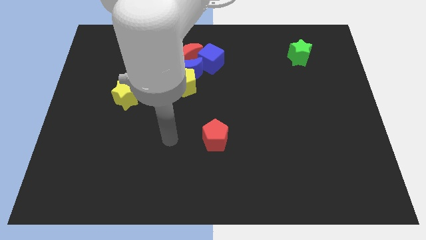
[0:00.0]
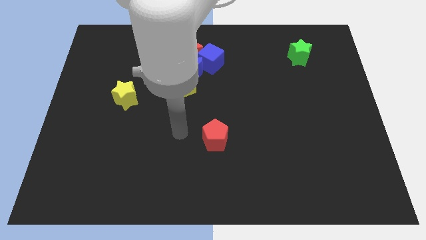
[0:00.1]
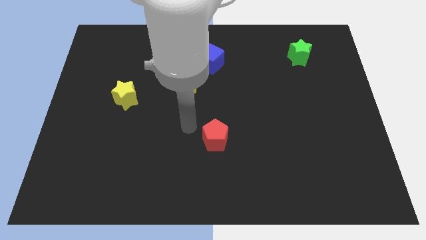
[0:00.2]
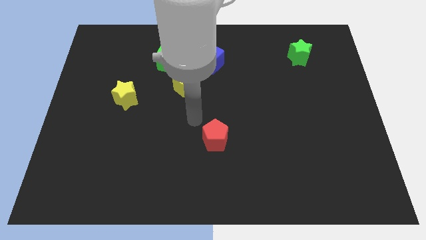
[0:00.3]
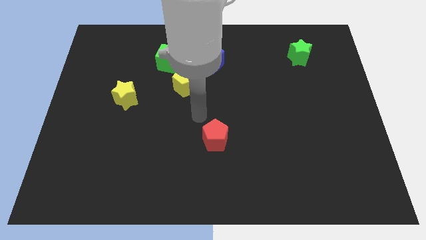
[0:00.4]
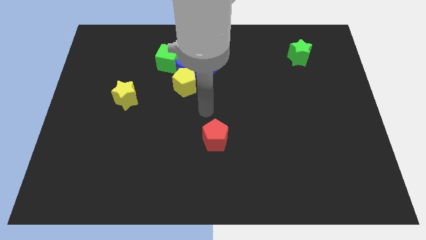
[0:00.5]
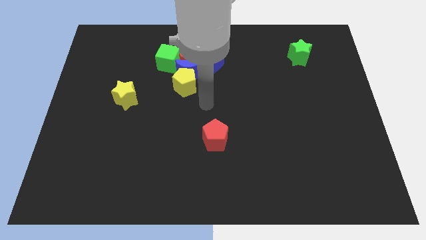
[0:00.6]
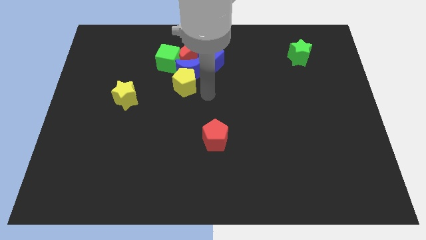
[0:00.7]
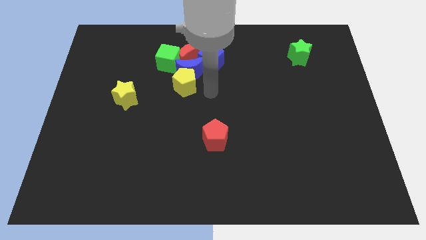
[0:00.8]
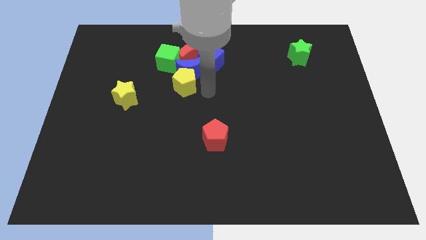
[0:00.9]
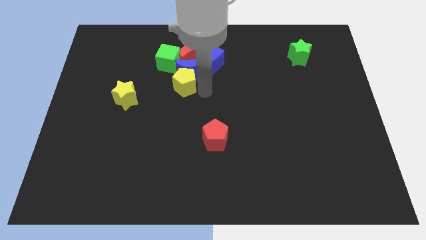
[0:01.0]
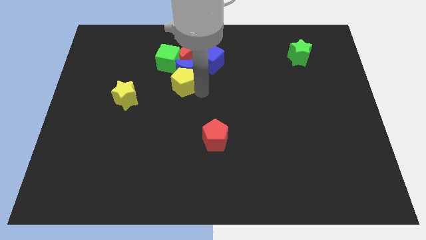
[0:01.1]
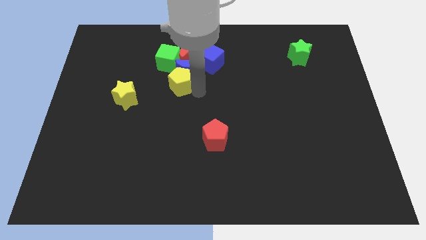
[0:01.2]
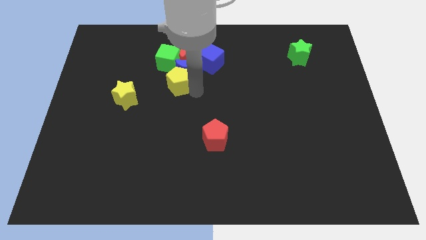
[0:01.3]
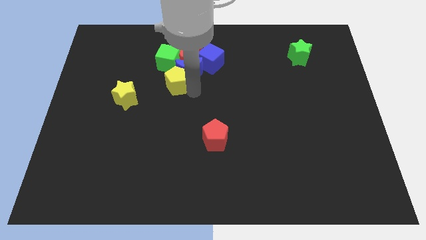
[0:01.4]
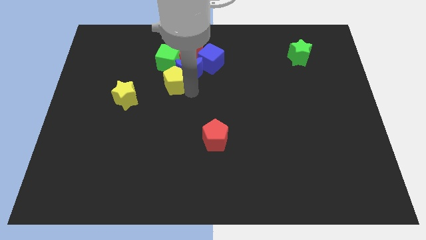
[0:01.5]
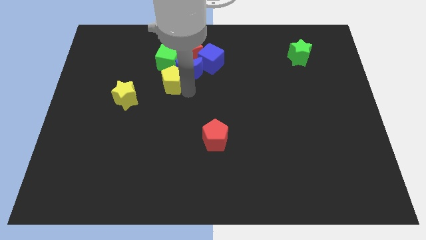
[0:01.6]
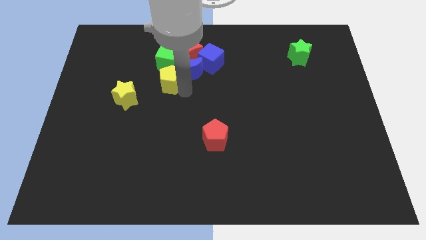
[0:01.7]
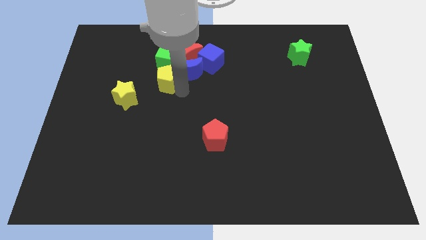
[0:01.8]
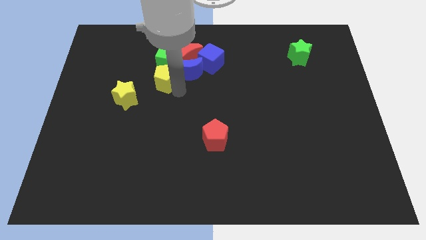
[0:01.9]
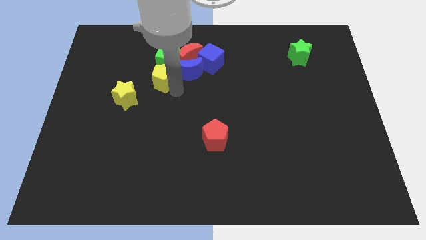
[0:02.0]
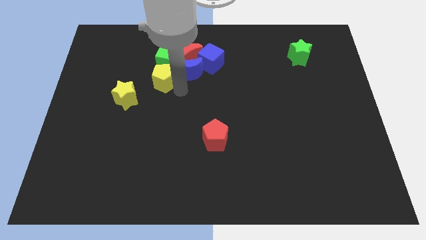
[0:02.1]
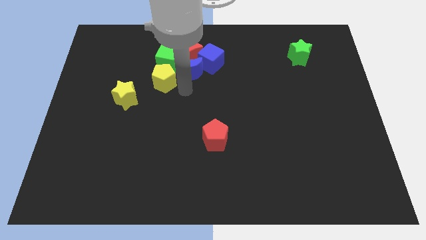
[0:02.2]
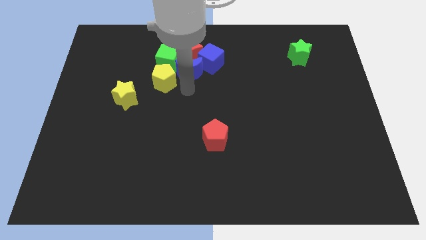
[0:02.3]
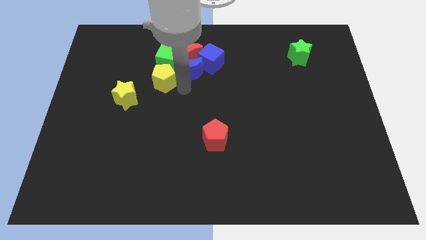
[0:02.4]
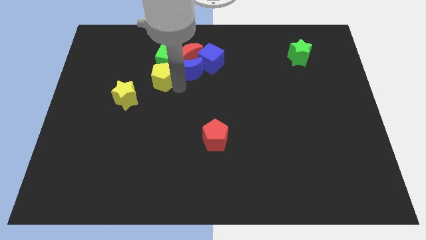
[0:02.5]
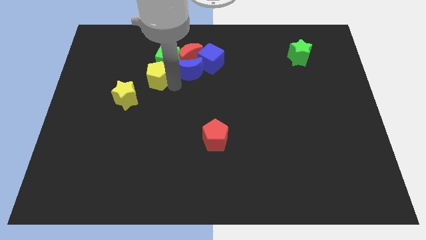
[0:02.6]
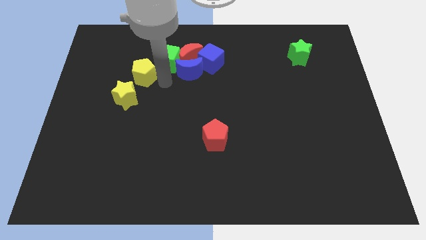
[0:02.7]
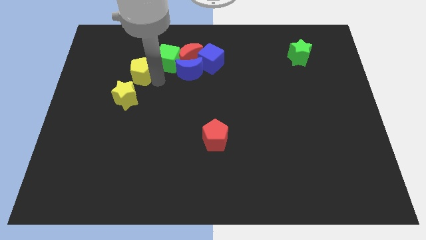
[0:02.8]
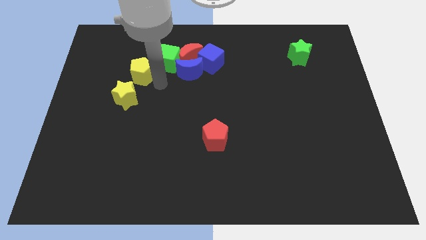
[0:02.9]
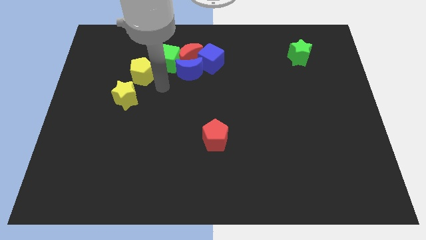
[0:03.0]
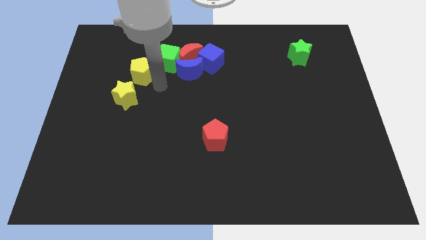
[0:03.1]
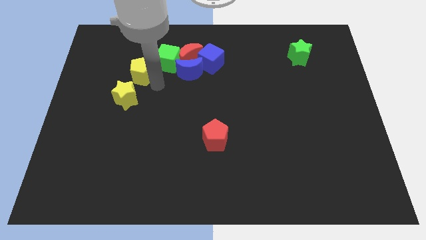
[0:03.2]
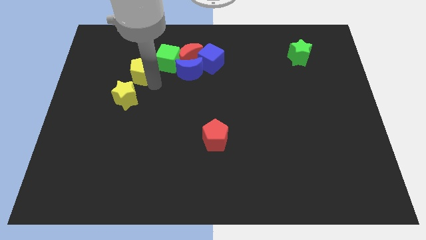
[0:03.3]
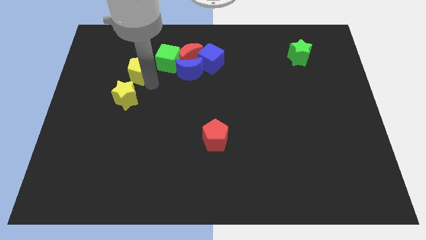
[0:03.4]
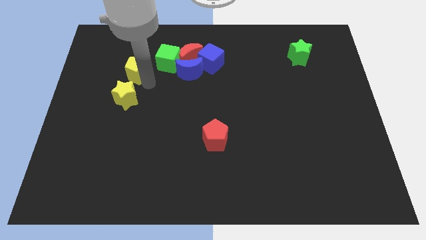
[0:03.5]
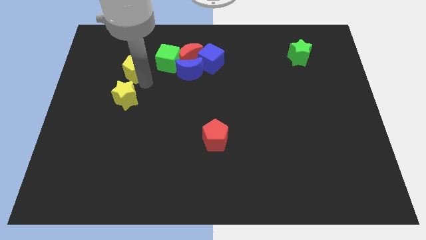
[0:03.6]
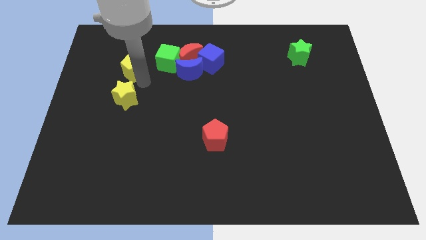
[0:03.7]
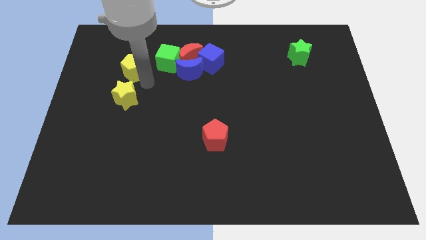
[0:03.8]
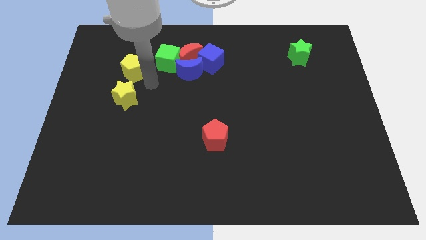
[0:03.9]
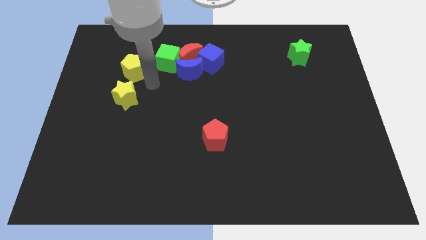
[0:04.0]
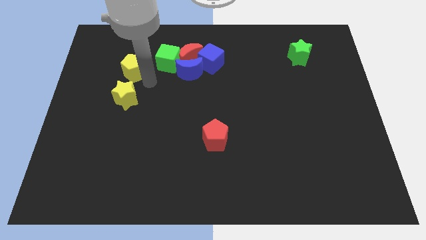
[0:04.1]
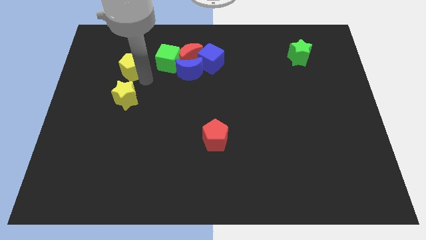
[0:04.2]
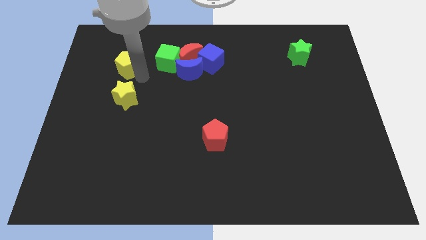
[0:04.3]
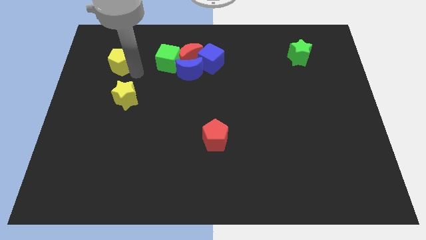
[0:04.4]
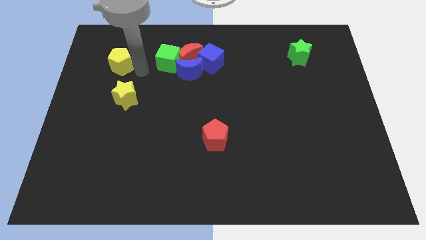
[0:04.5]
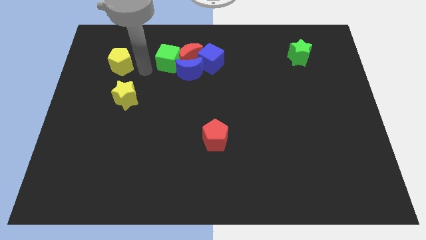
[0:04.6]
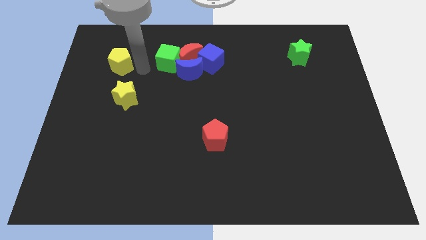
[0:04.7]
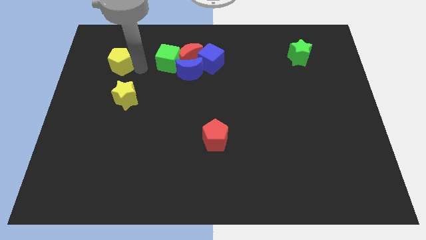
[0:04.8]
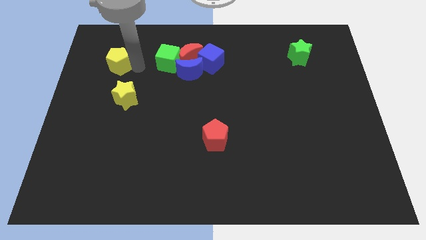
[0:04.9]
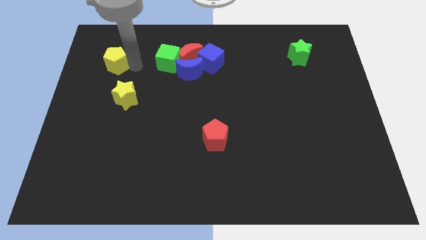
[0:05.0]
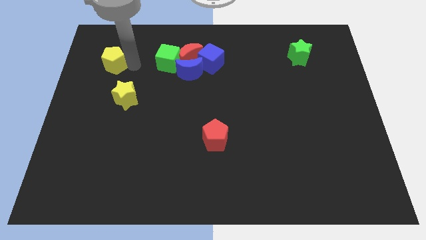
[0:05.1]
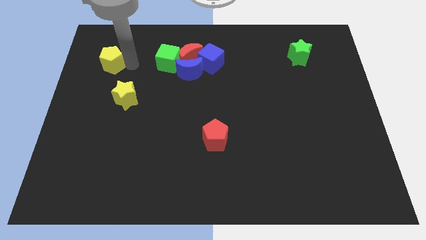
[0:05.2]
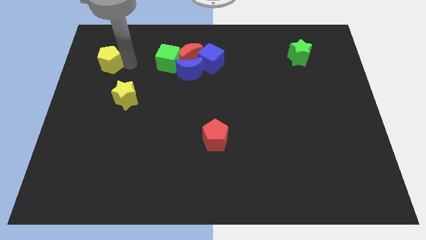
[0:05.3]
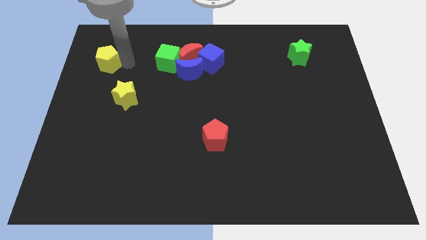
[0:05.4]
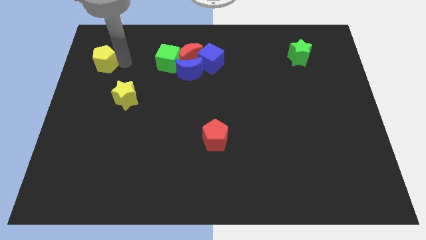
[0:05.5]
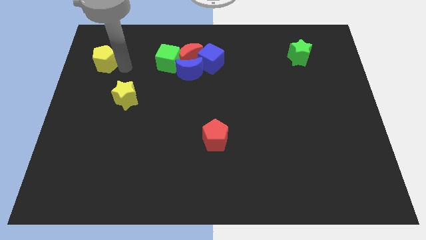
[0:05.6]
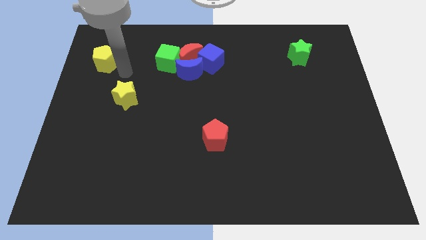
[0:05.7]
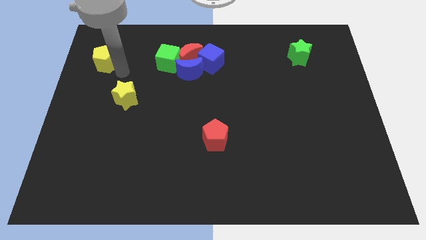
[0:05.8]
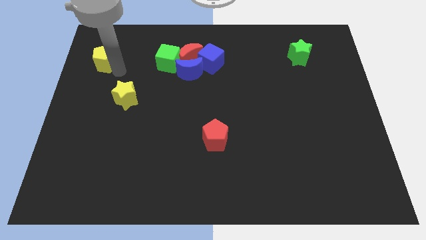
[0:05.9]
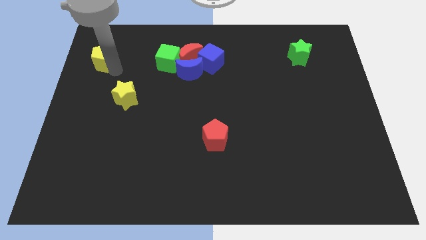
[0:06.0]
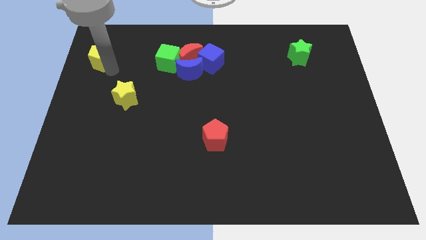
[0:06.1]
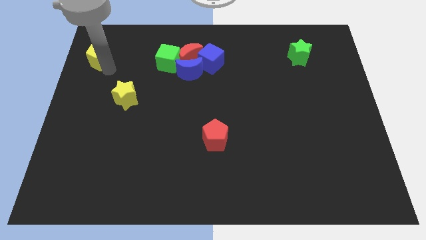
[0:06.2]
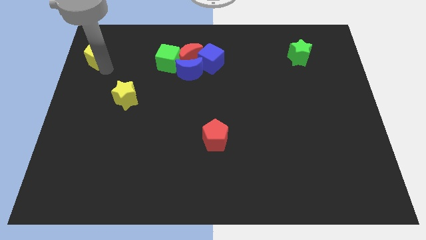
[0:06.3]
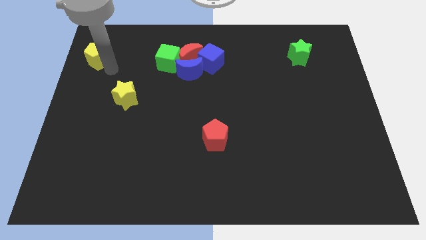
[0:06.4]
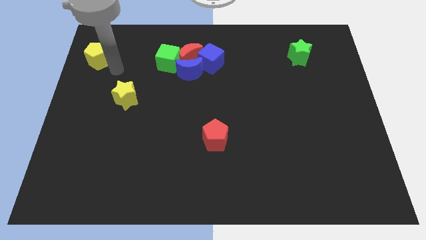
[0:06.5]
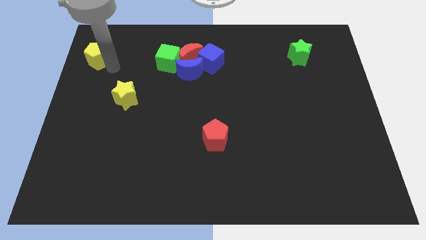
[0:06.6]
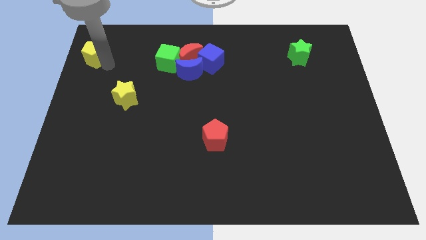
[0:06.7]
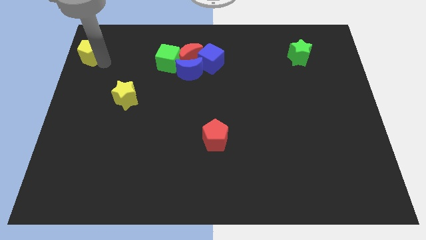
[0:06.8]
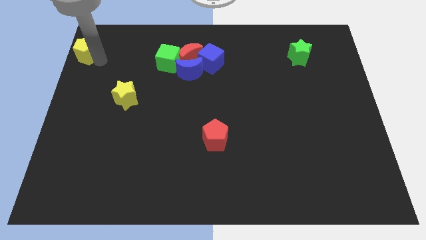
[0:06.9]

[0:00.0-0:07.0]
move the yellow pentagon to the top left corner
